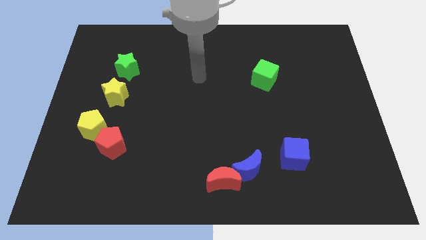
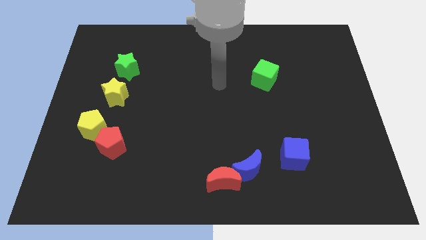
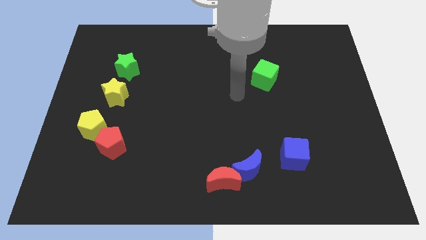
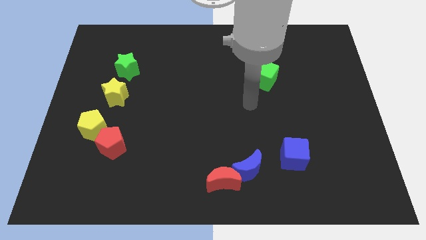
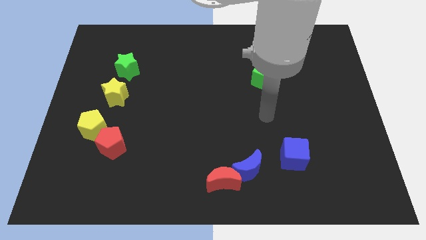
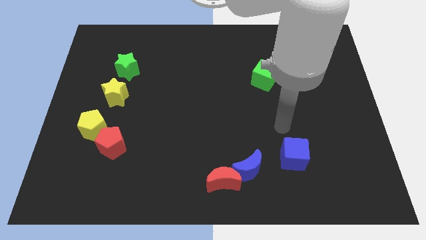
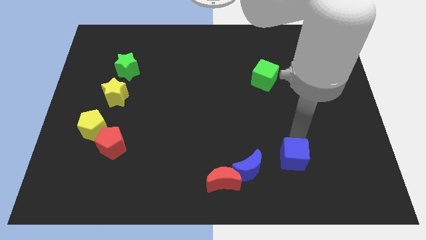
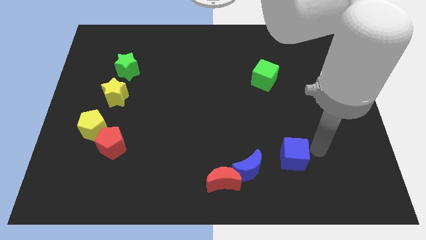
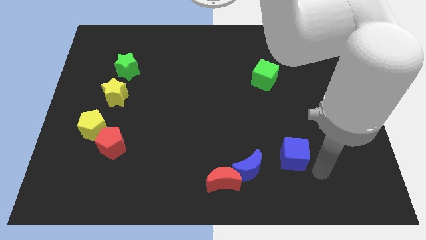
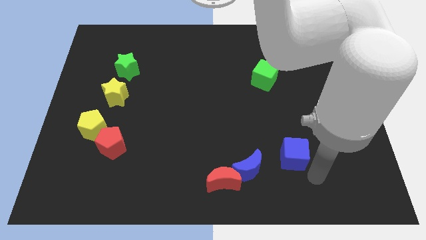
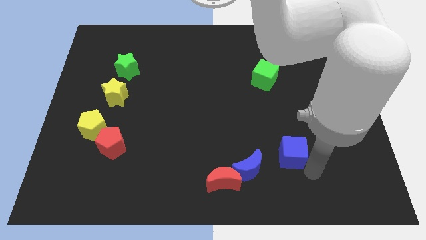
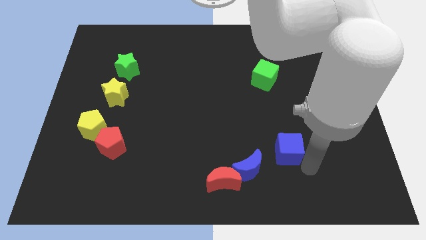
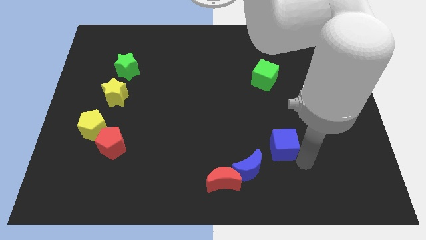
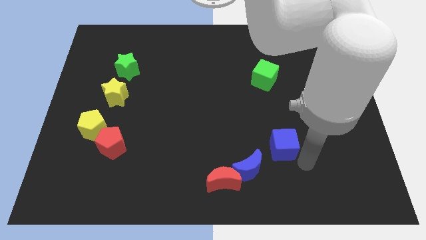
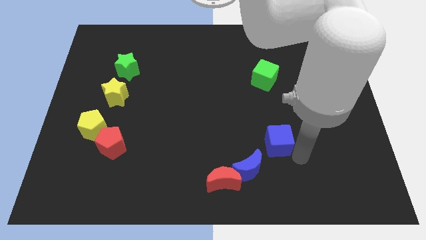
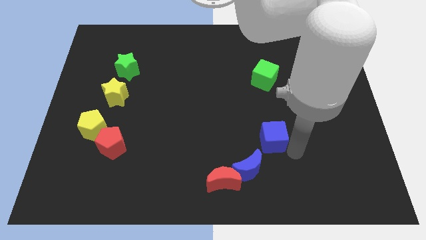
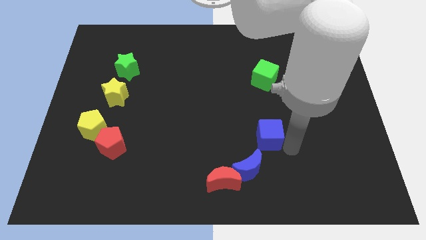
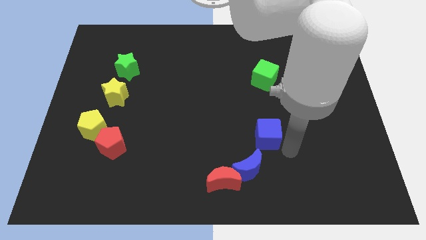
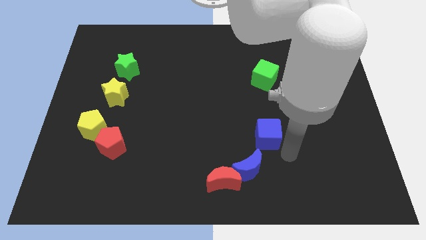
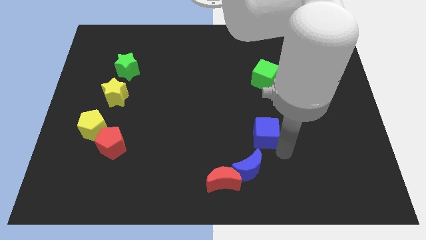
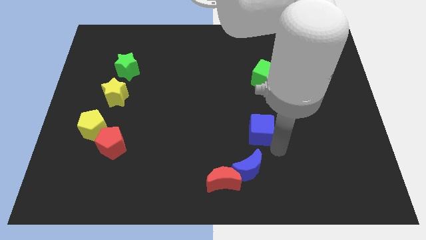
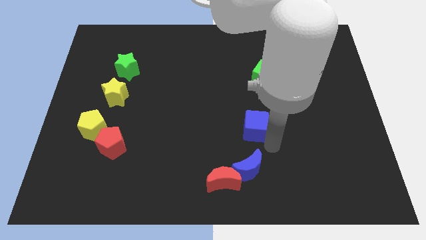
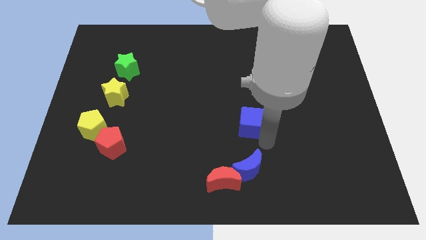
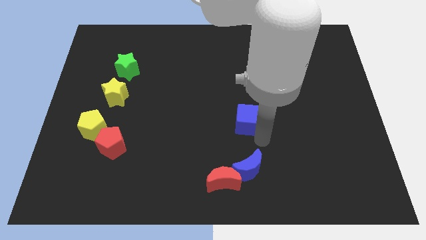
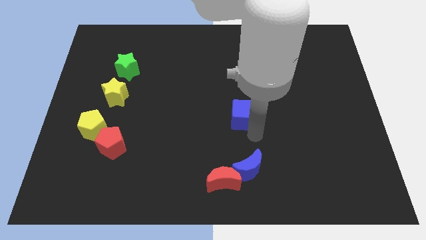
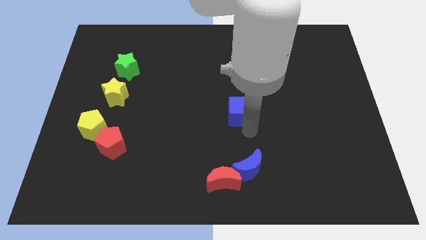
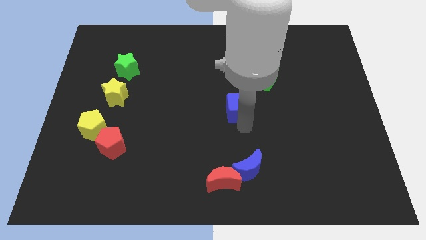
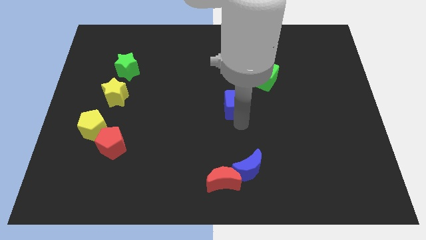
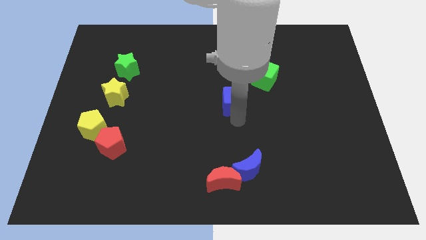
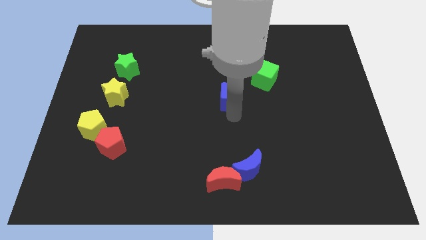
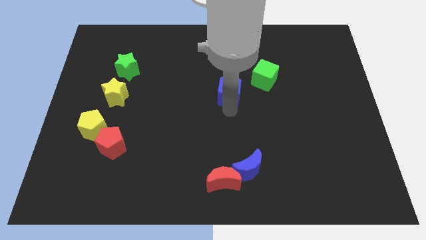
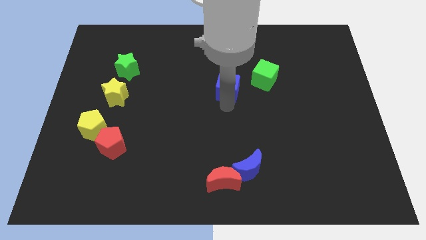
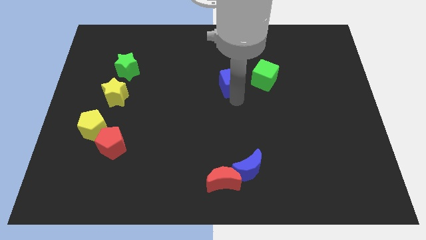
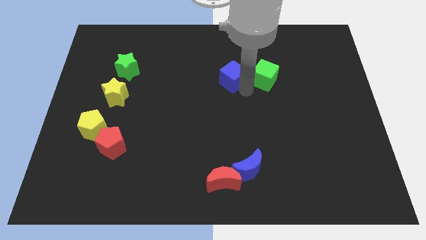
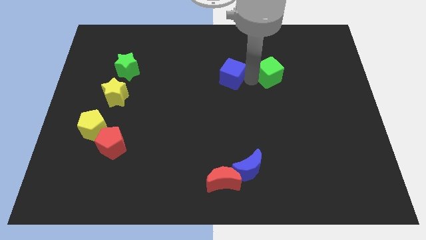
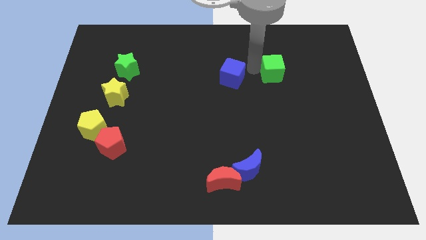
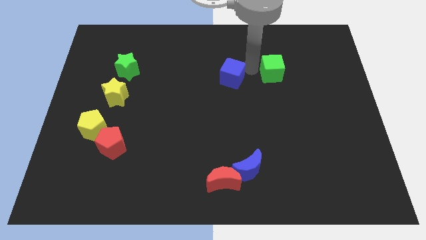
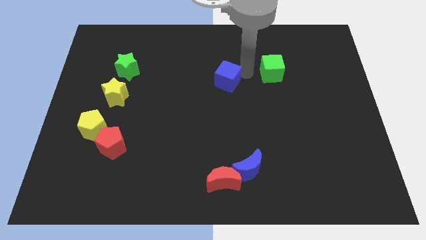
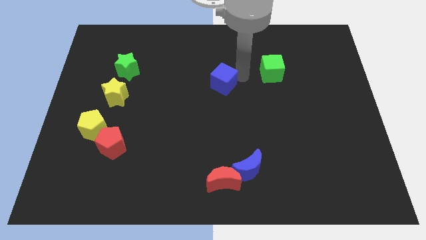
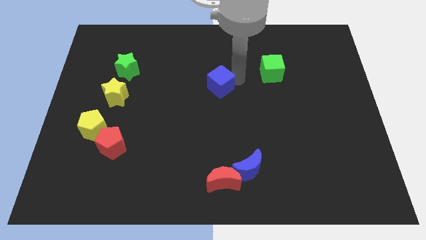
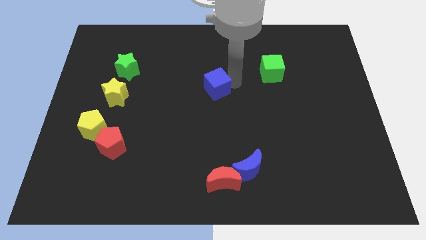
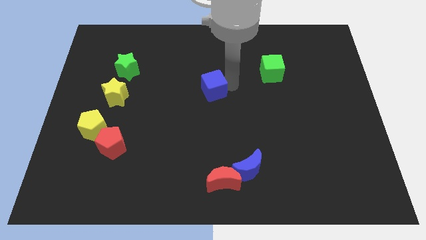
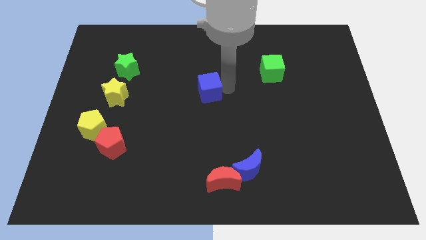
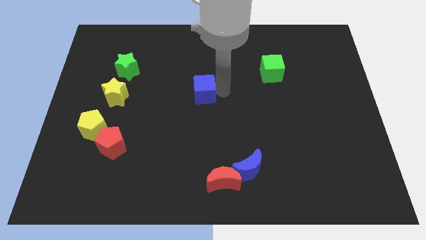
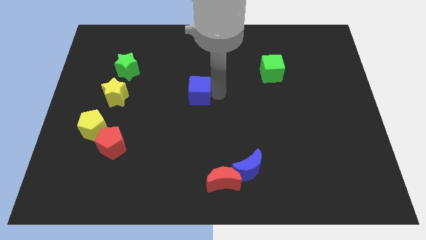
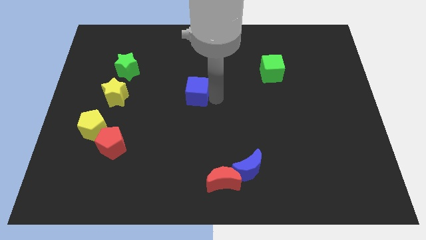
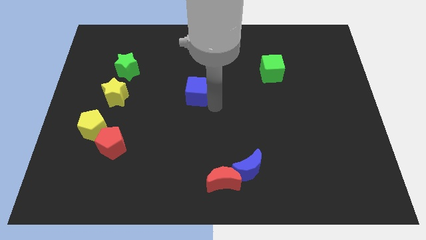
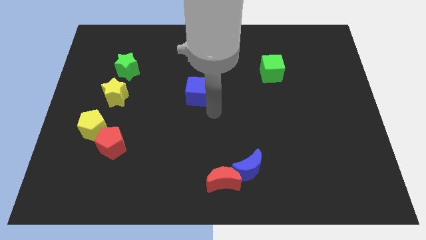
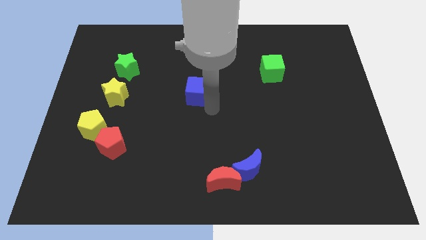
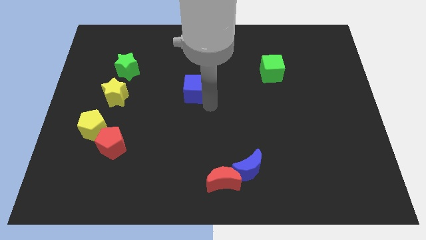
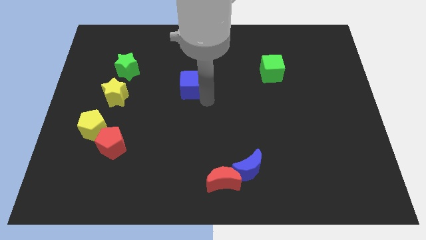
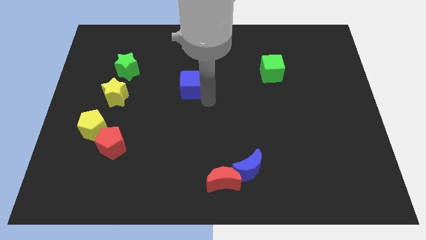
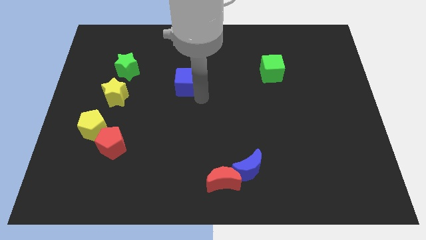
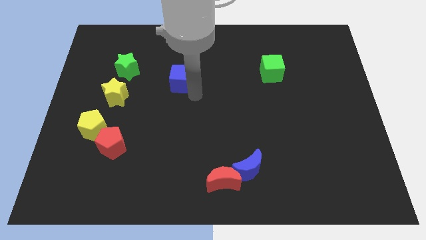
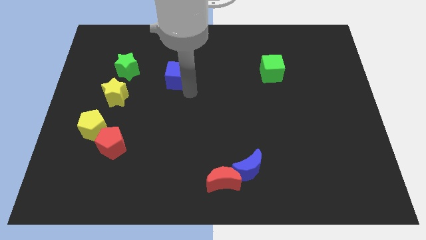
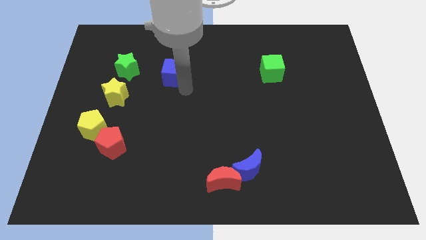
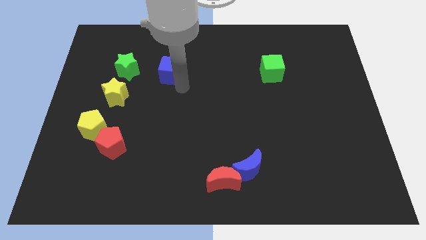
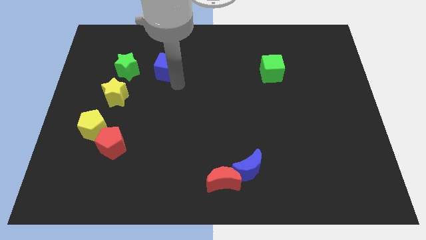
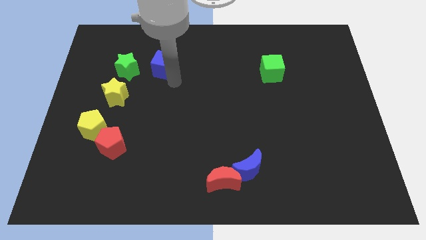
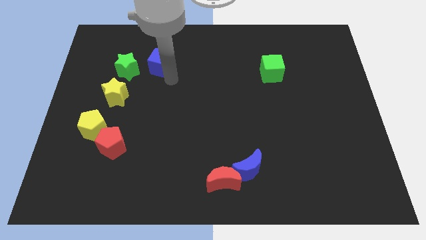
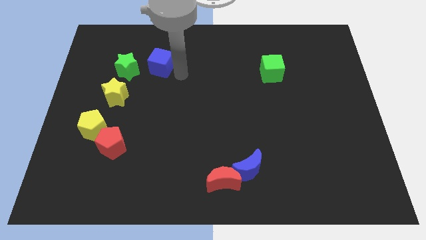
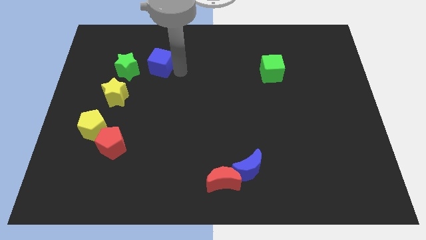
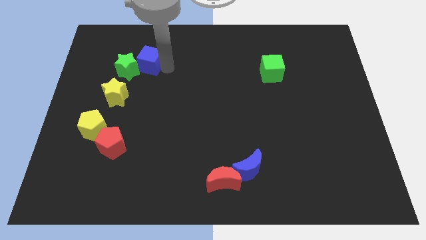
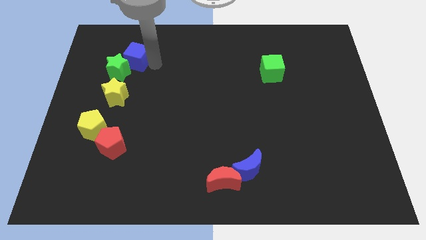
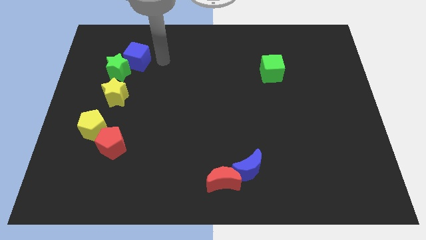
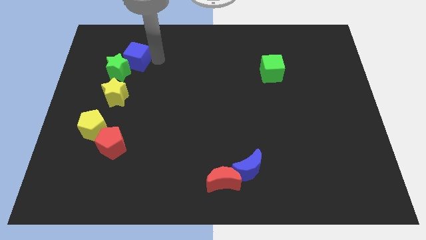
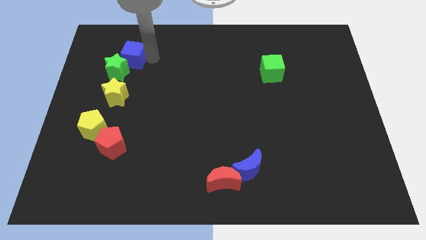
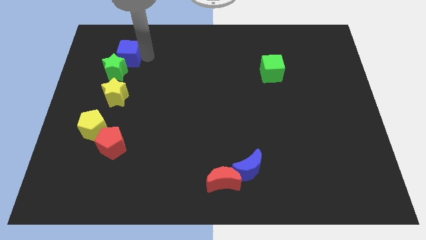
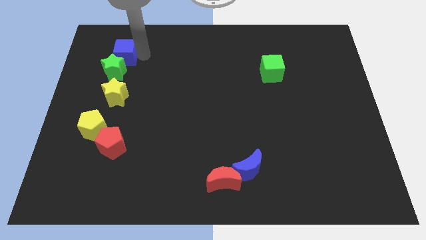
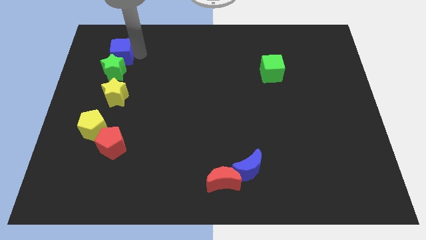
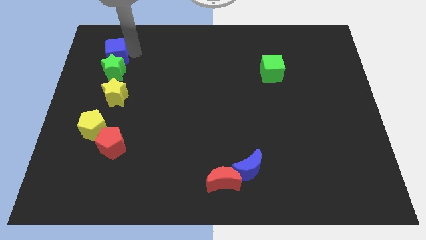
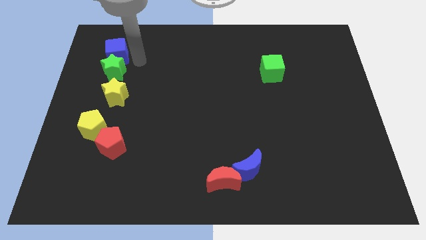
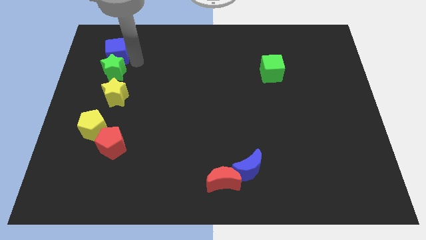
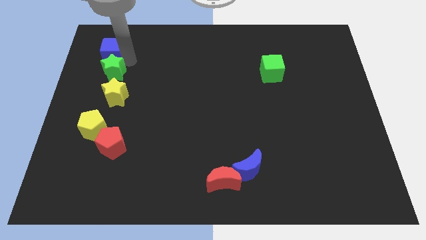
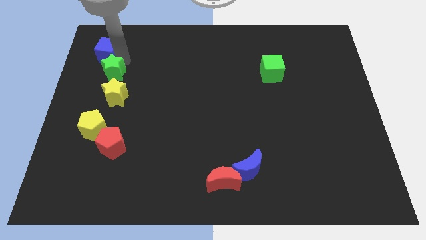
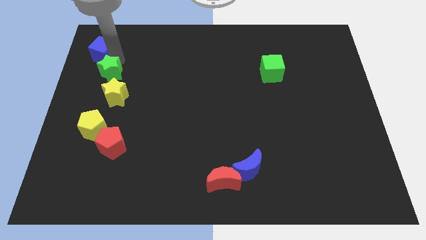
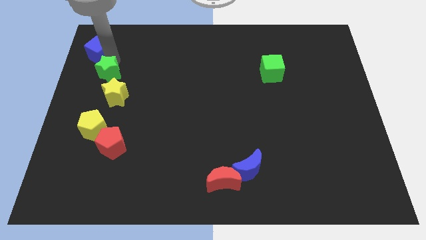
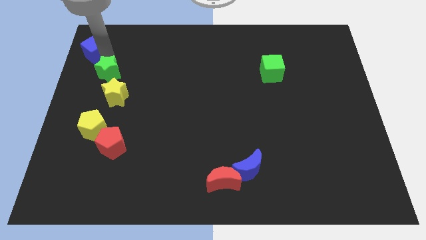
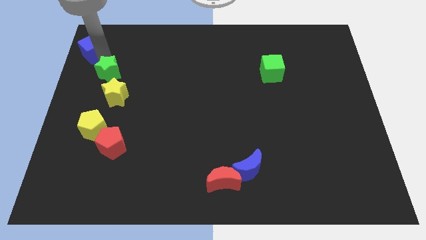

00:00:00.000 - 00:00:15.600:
move the blue cube to the top left
